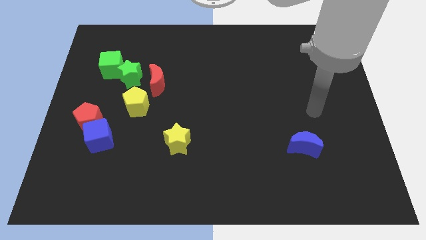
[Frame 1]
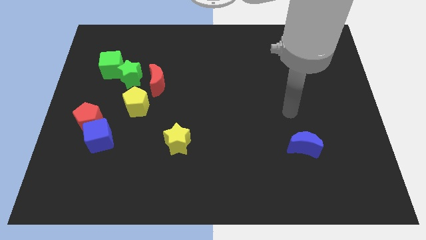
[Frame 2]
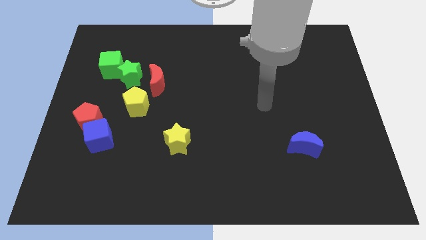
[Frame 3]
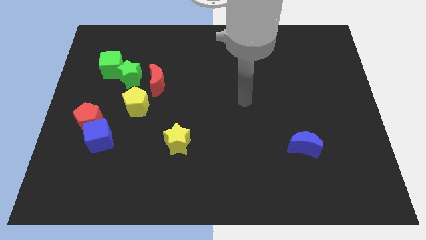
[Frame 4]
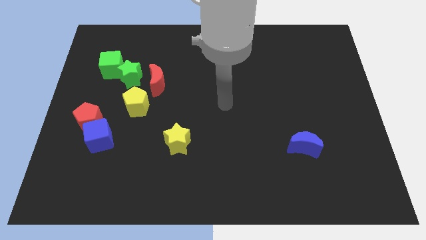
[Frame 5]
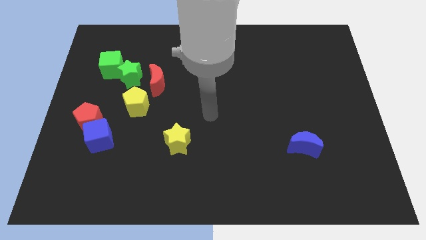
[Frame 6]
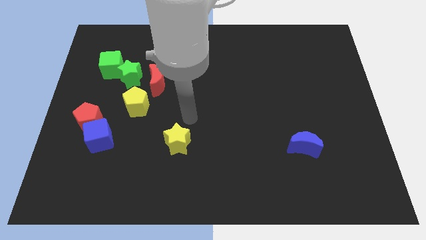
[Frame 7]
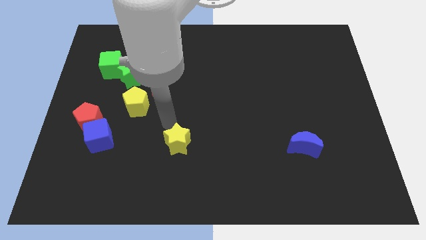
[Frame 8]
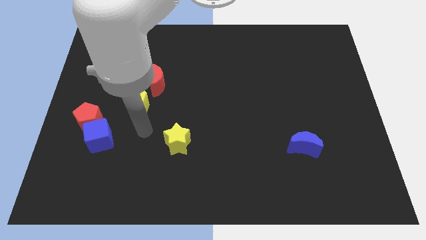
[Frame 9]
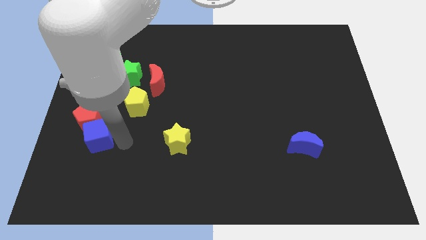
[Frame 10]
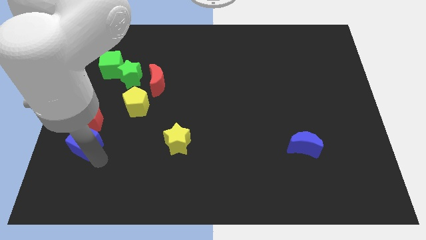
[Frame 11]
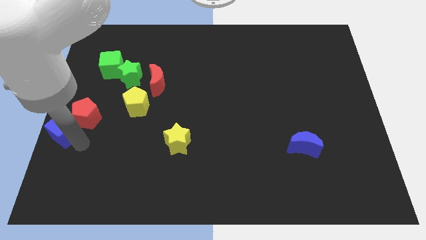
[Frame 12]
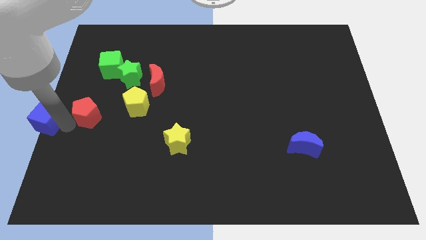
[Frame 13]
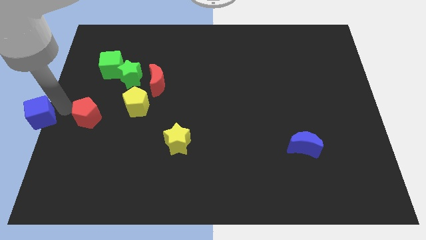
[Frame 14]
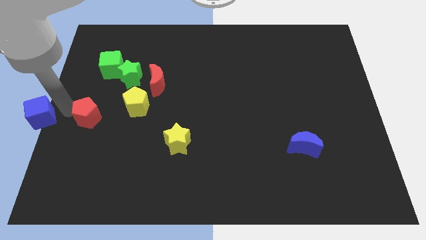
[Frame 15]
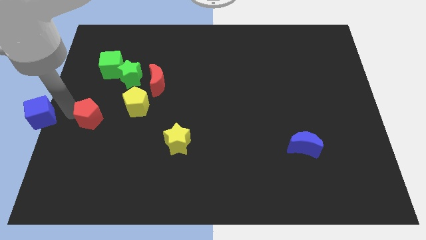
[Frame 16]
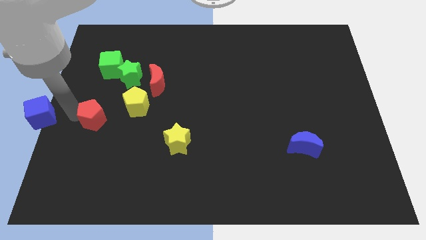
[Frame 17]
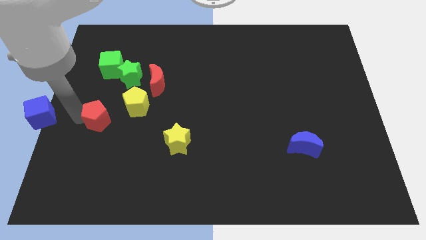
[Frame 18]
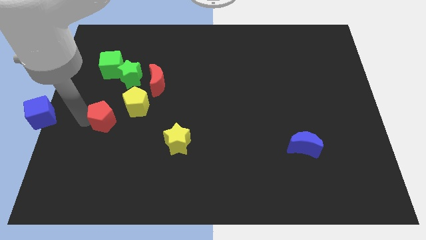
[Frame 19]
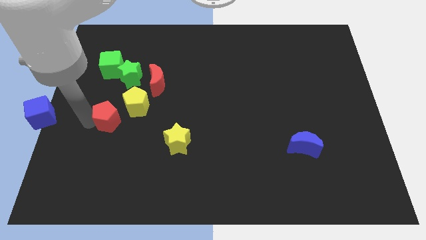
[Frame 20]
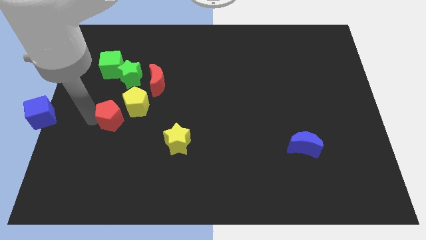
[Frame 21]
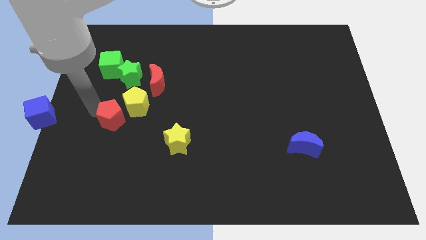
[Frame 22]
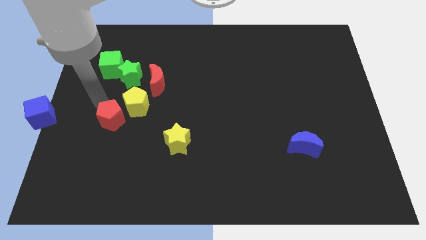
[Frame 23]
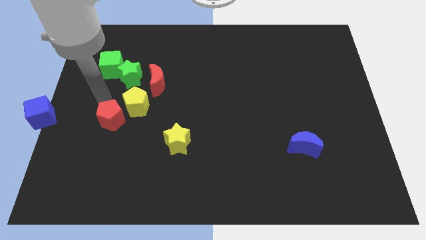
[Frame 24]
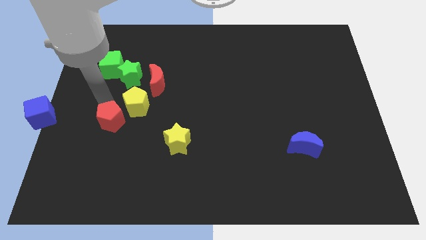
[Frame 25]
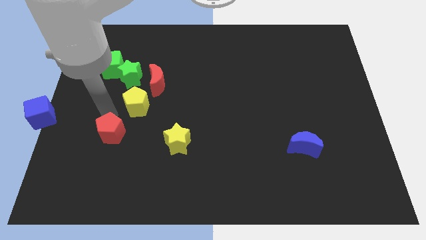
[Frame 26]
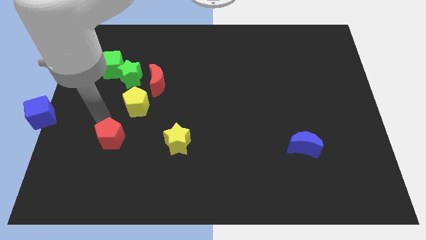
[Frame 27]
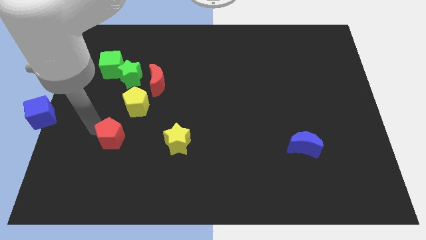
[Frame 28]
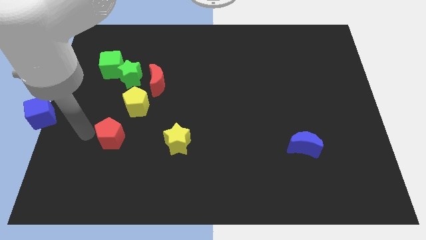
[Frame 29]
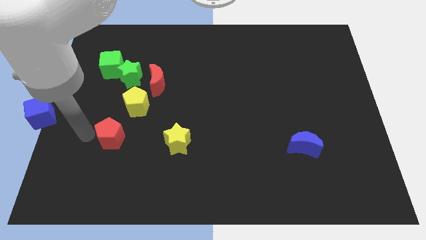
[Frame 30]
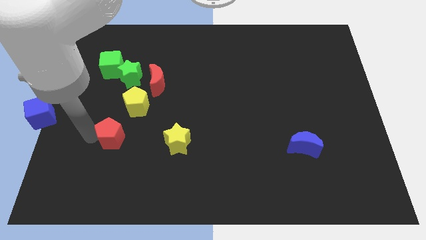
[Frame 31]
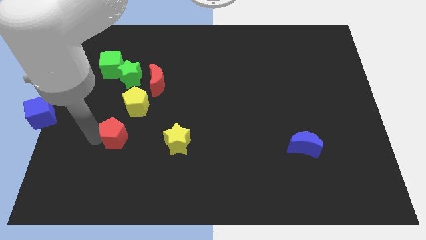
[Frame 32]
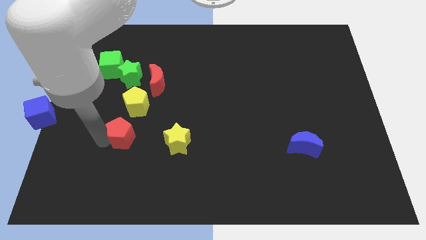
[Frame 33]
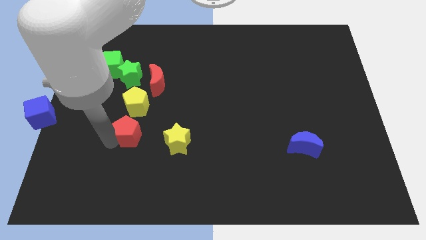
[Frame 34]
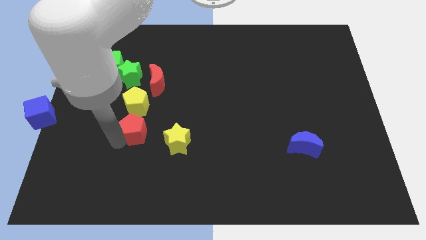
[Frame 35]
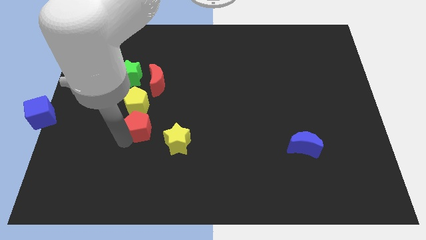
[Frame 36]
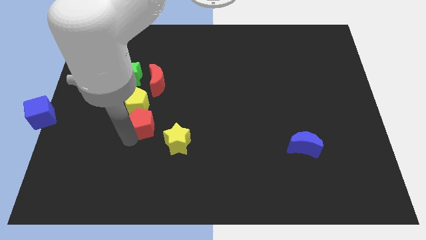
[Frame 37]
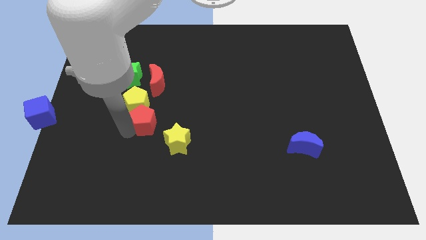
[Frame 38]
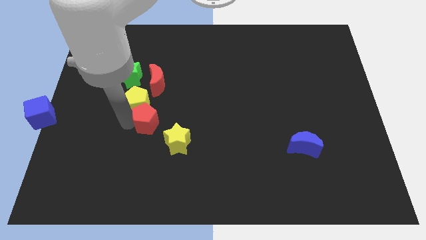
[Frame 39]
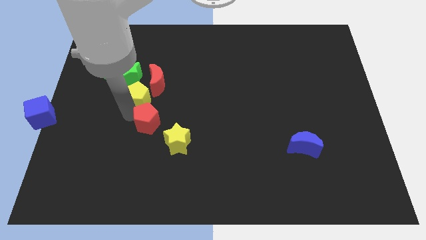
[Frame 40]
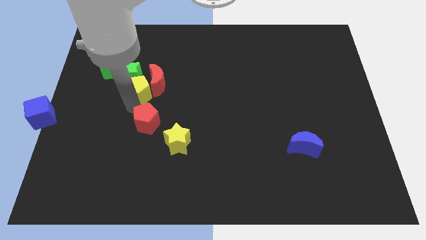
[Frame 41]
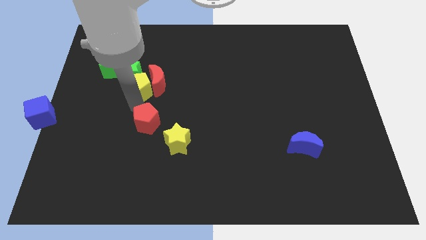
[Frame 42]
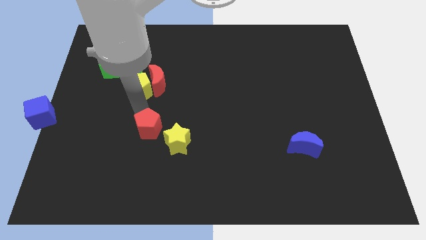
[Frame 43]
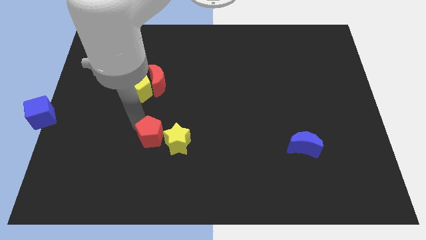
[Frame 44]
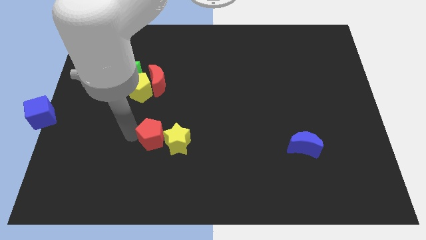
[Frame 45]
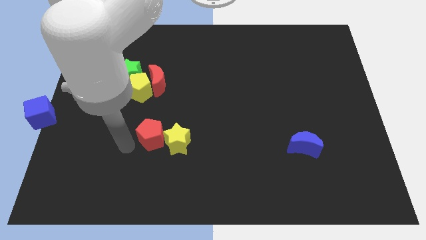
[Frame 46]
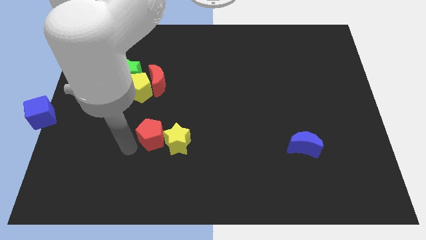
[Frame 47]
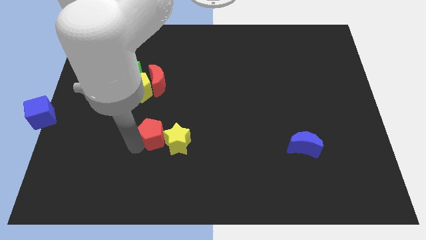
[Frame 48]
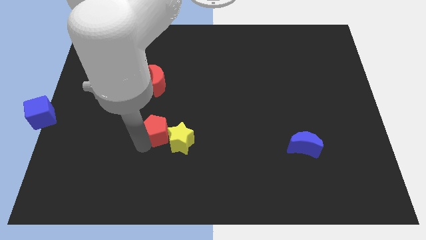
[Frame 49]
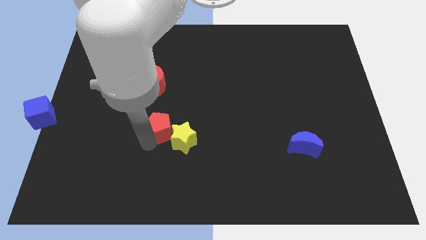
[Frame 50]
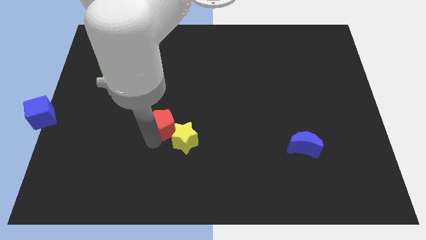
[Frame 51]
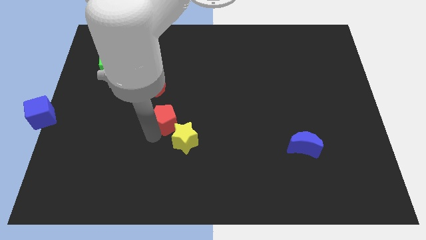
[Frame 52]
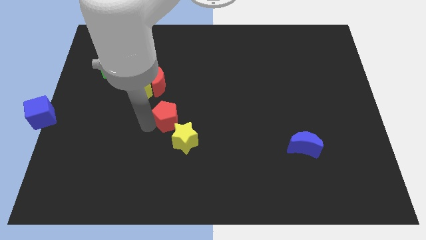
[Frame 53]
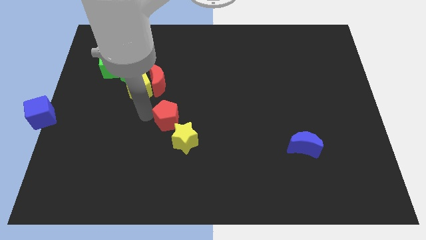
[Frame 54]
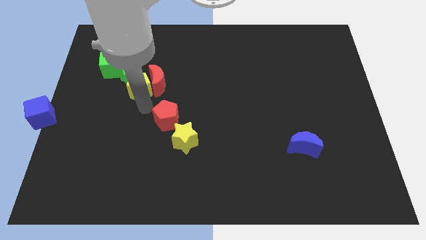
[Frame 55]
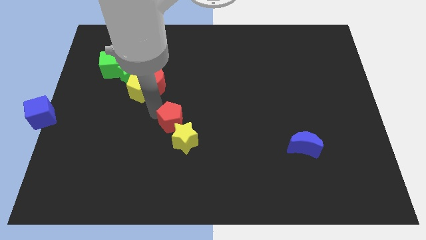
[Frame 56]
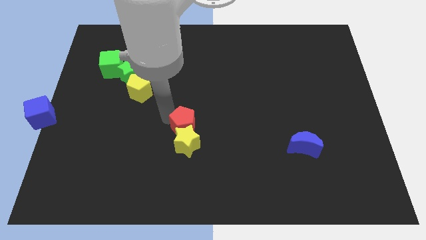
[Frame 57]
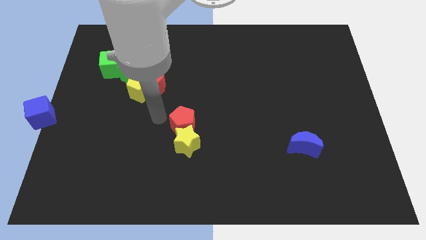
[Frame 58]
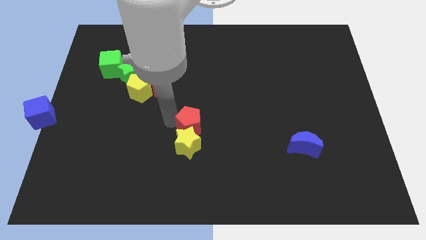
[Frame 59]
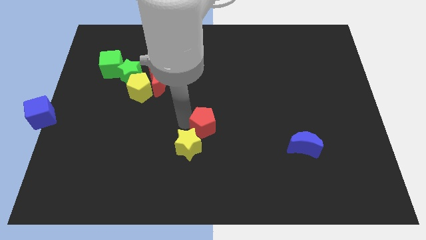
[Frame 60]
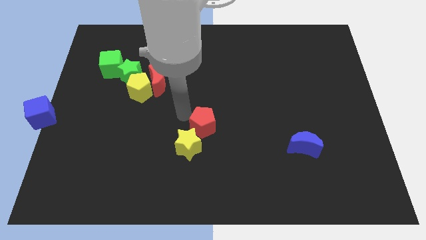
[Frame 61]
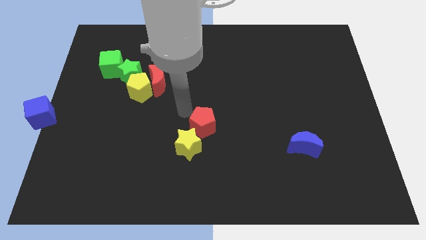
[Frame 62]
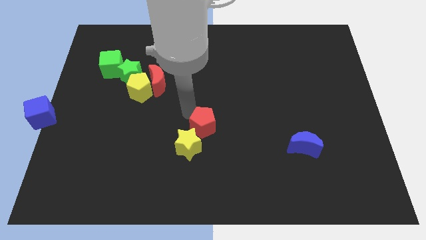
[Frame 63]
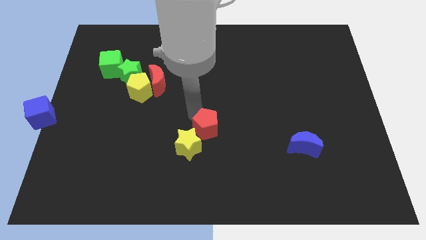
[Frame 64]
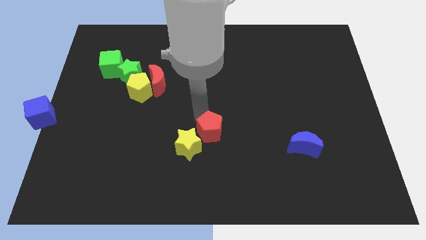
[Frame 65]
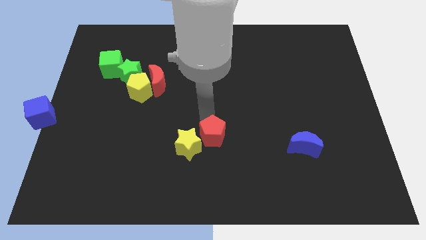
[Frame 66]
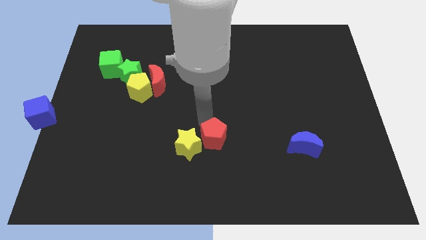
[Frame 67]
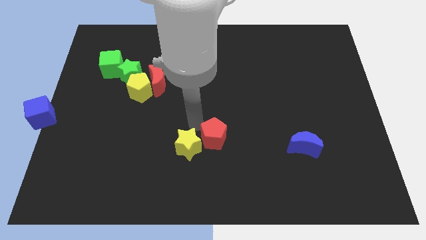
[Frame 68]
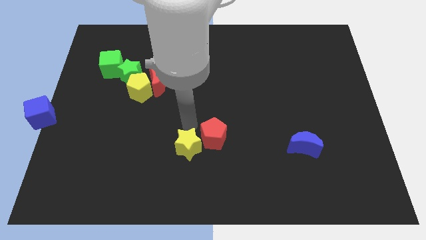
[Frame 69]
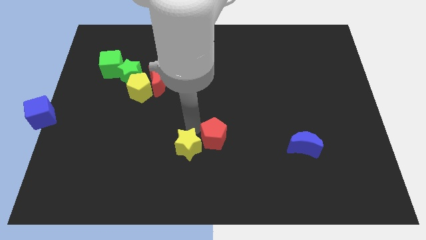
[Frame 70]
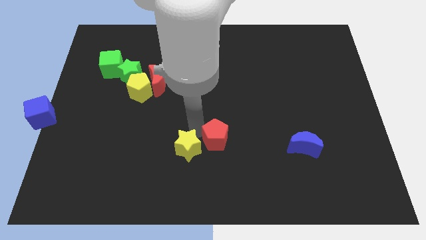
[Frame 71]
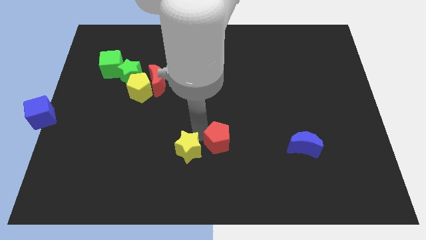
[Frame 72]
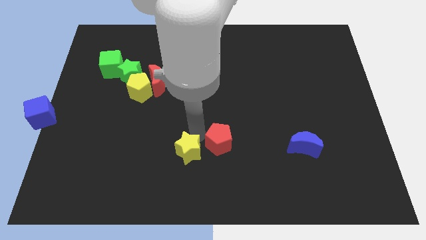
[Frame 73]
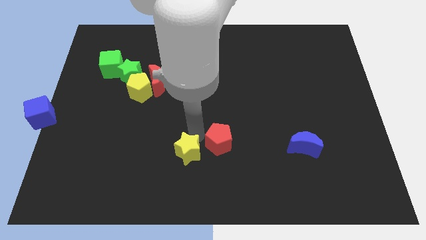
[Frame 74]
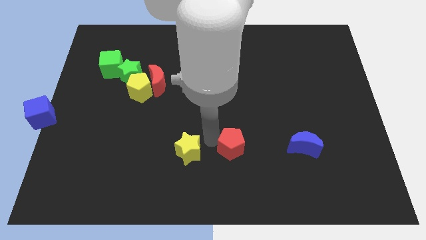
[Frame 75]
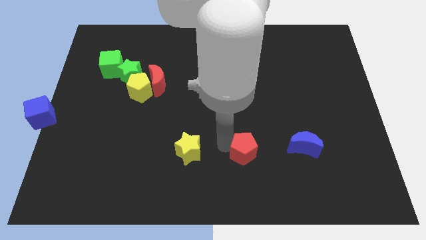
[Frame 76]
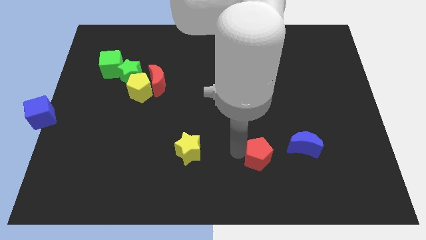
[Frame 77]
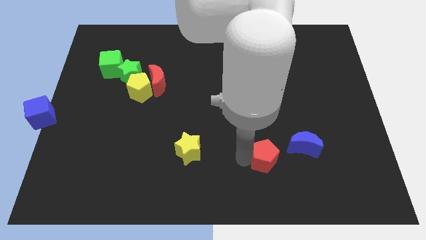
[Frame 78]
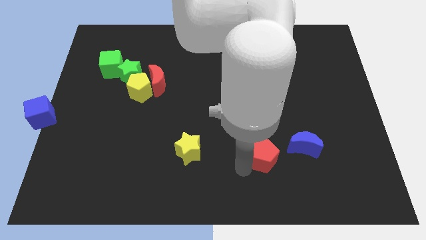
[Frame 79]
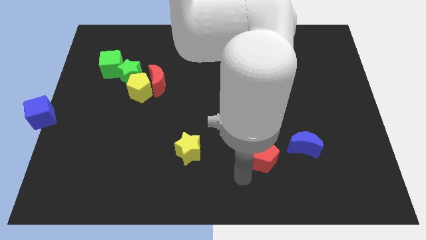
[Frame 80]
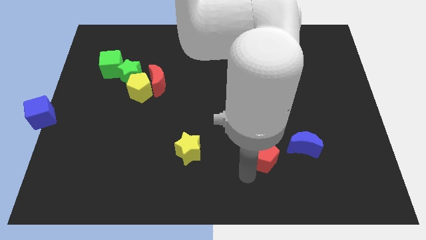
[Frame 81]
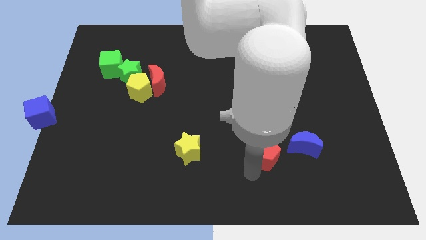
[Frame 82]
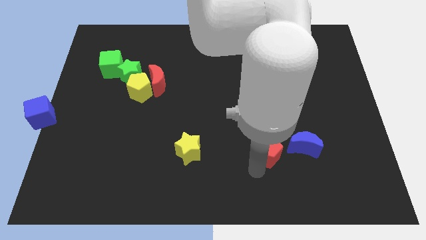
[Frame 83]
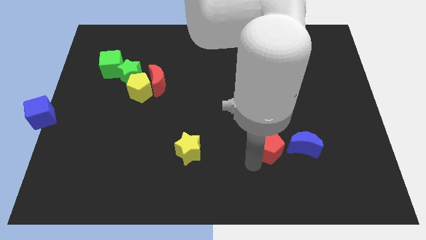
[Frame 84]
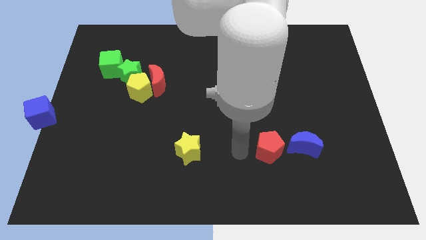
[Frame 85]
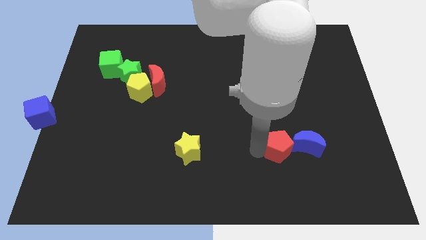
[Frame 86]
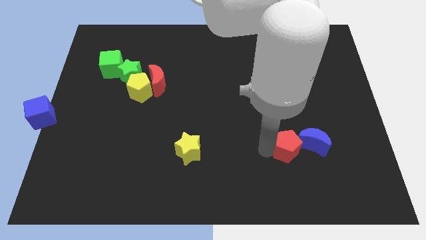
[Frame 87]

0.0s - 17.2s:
put the red pentagon close to the blue moon
